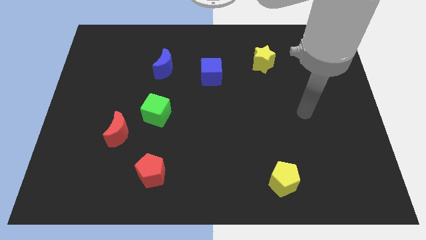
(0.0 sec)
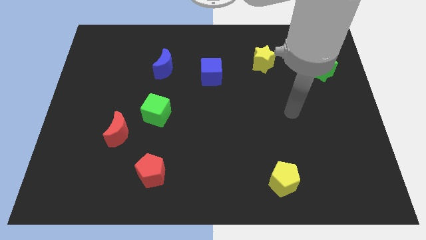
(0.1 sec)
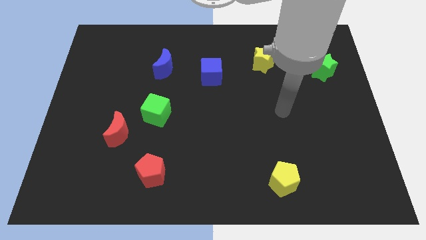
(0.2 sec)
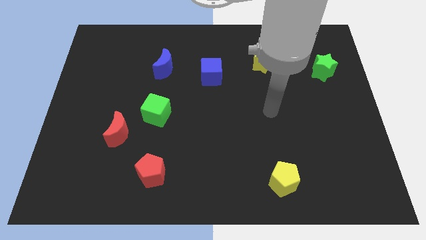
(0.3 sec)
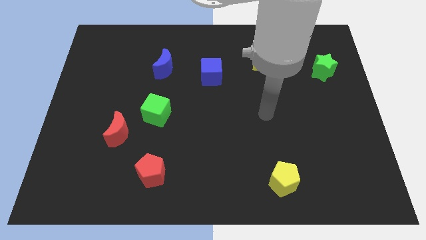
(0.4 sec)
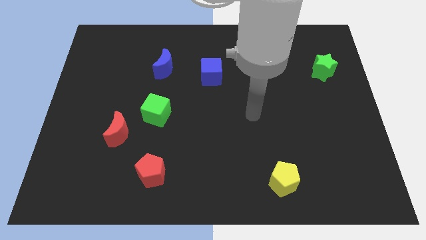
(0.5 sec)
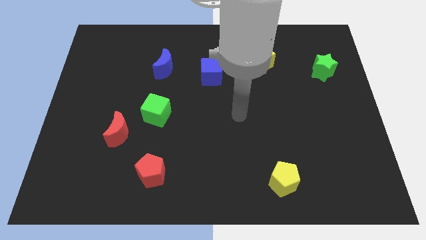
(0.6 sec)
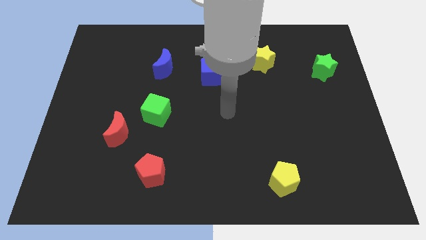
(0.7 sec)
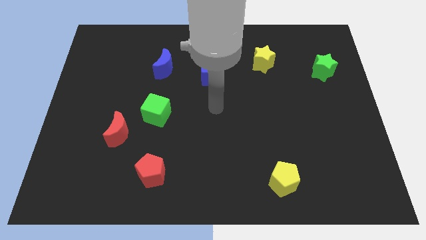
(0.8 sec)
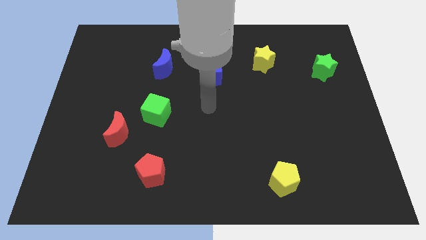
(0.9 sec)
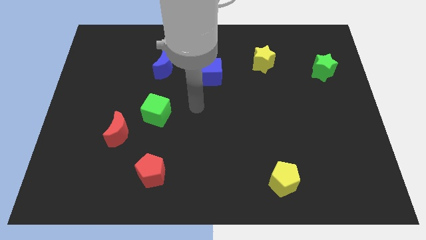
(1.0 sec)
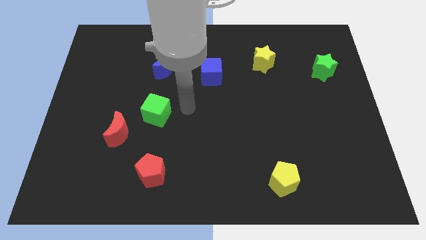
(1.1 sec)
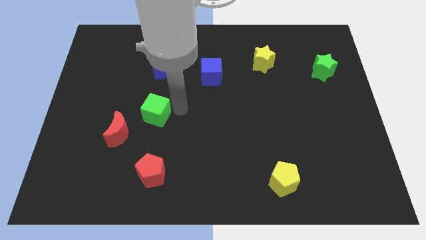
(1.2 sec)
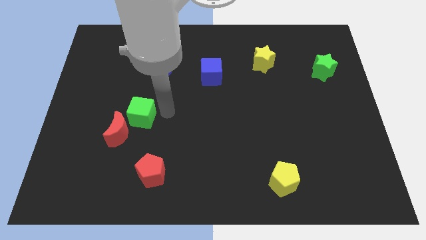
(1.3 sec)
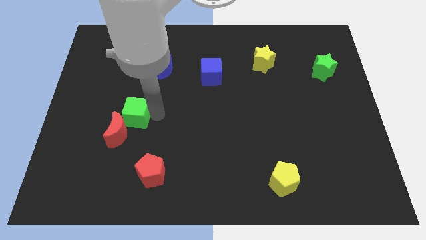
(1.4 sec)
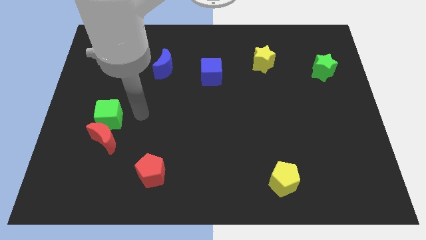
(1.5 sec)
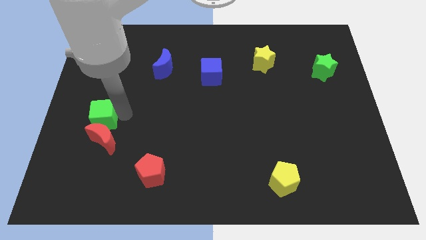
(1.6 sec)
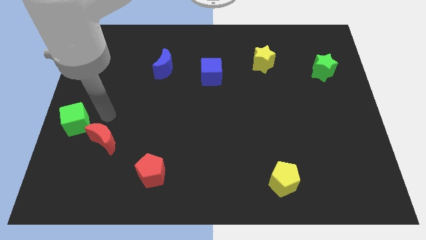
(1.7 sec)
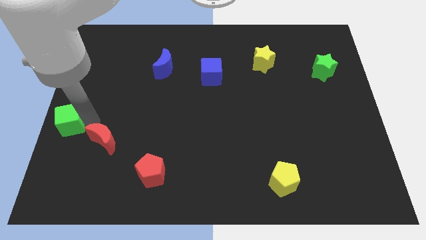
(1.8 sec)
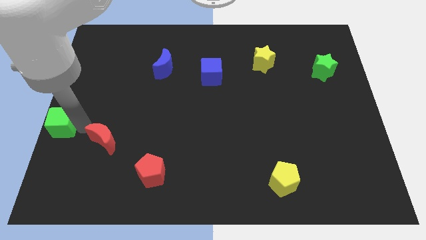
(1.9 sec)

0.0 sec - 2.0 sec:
move the red moon away from the green cube

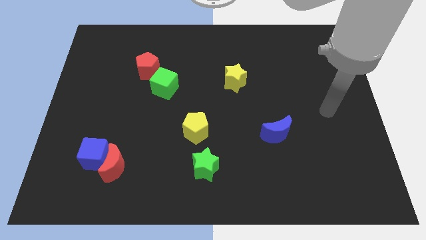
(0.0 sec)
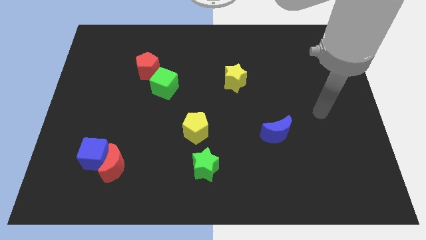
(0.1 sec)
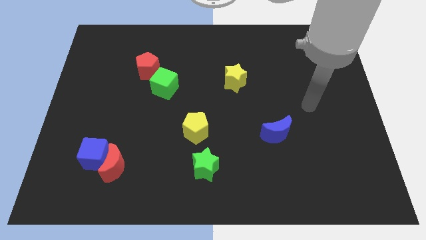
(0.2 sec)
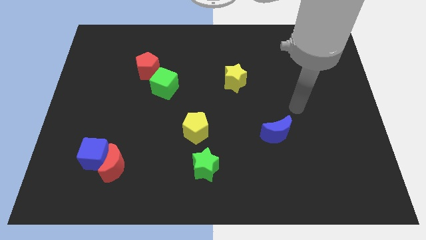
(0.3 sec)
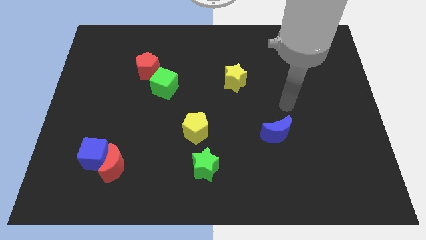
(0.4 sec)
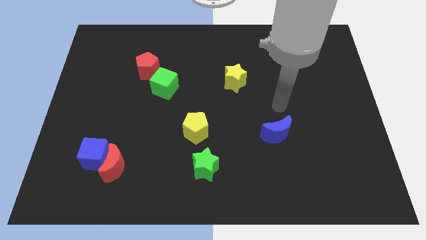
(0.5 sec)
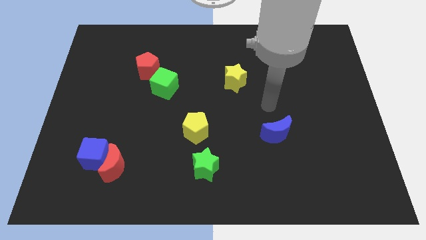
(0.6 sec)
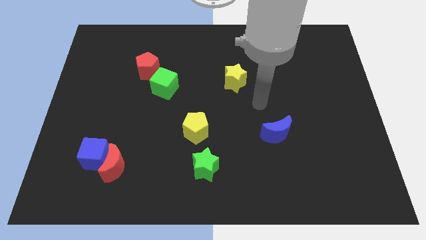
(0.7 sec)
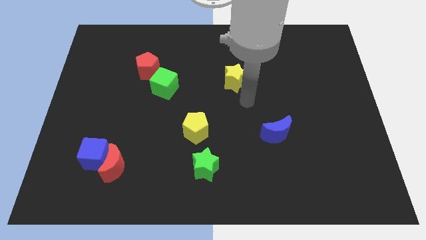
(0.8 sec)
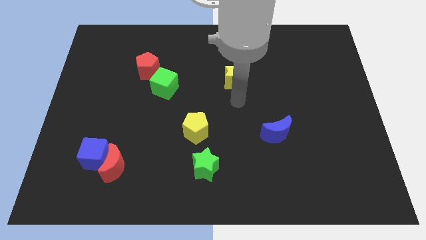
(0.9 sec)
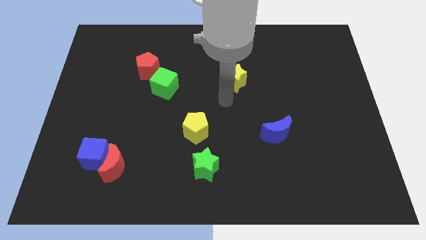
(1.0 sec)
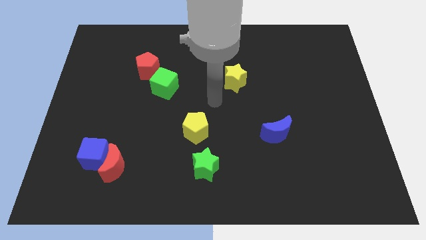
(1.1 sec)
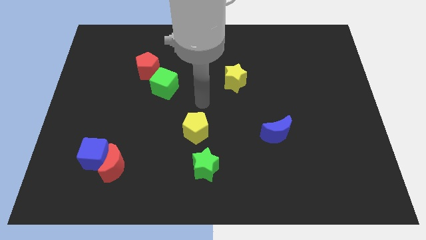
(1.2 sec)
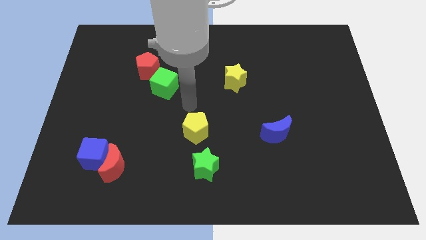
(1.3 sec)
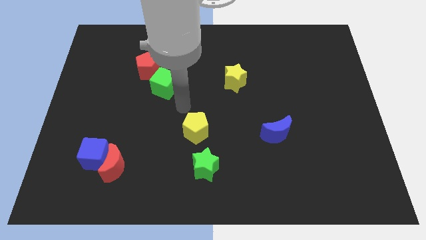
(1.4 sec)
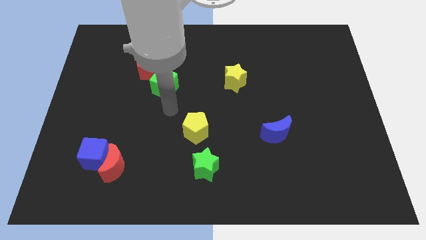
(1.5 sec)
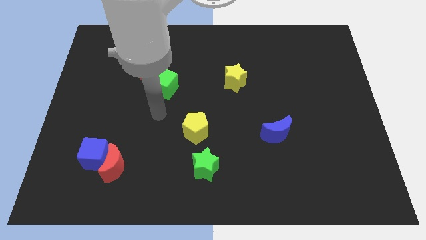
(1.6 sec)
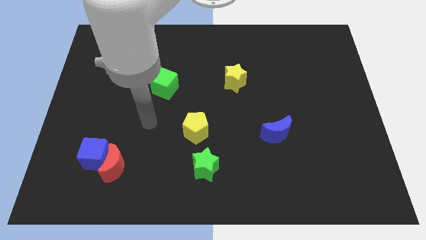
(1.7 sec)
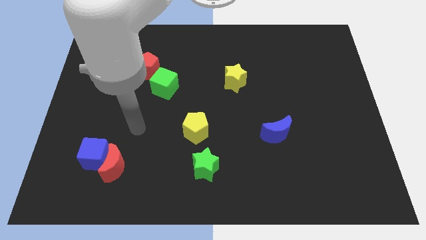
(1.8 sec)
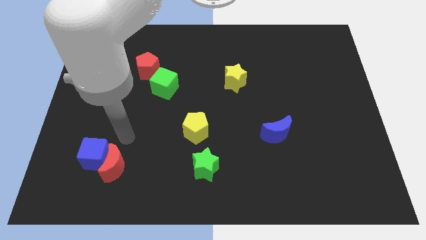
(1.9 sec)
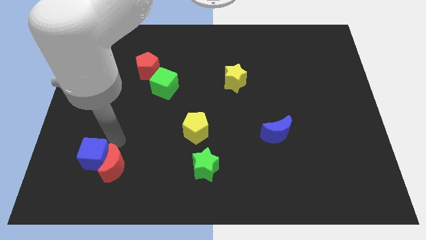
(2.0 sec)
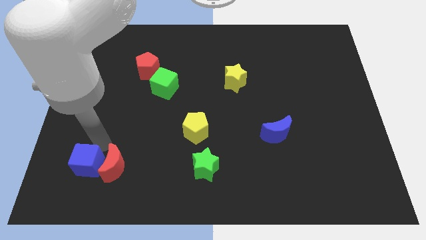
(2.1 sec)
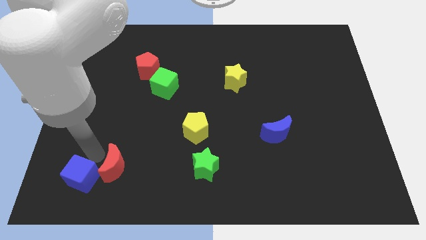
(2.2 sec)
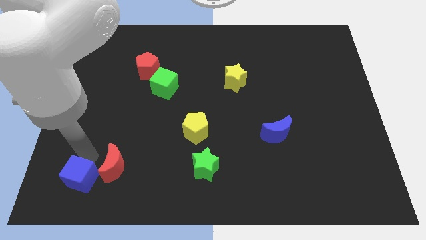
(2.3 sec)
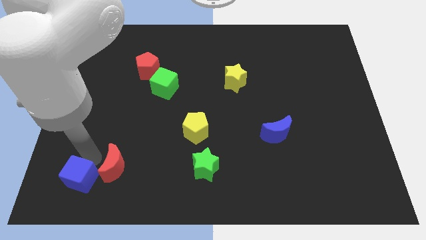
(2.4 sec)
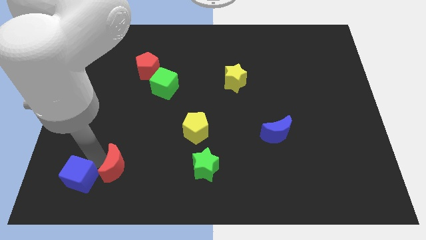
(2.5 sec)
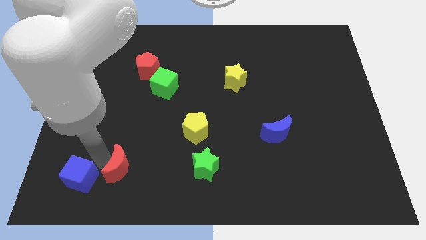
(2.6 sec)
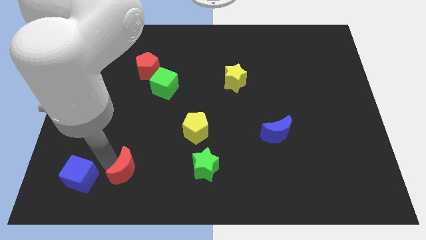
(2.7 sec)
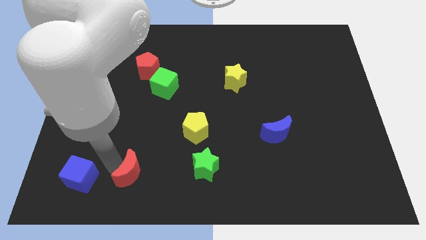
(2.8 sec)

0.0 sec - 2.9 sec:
move the red moon away from the blue cube

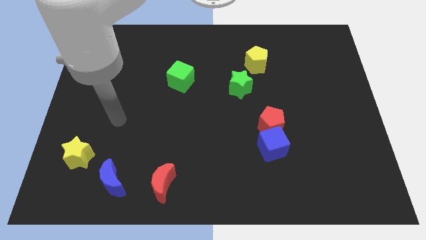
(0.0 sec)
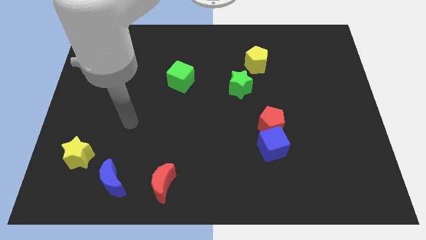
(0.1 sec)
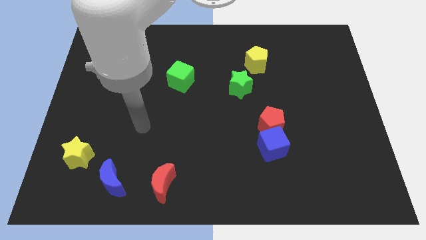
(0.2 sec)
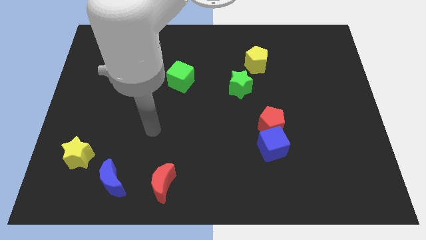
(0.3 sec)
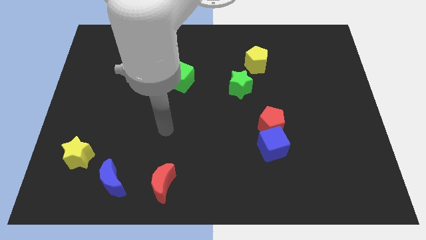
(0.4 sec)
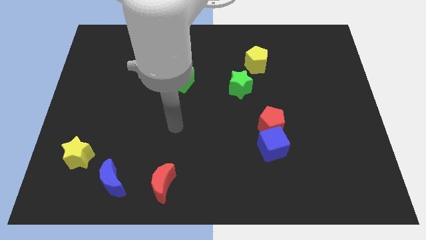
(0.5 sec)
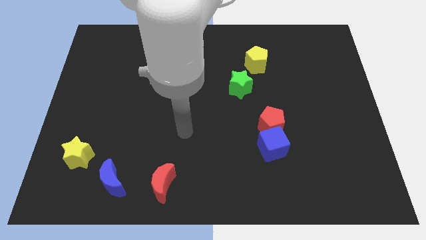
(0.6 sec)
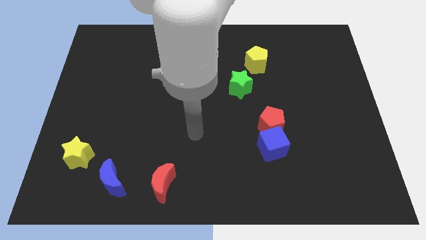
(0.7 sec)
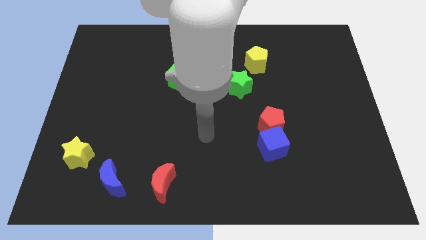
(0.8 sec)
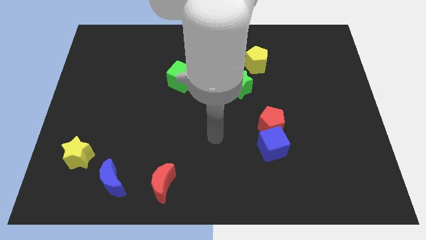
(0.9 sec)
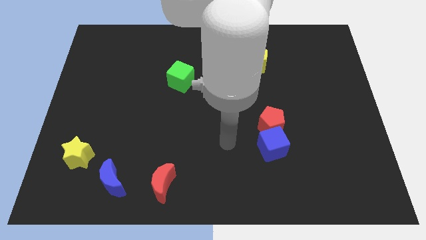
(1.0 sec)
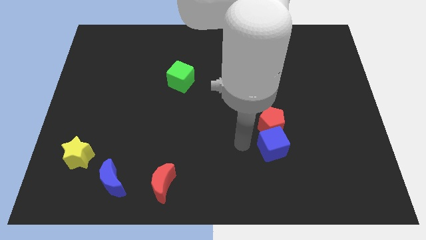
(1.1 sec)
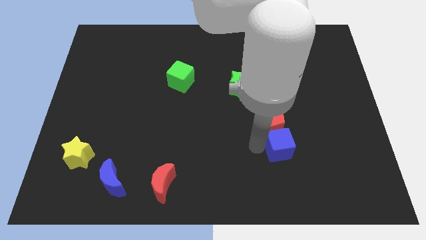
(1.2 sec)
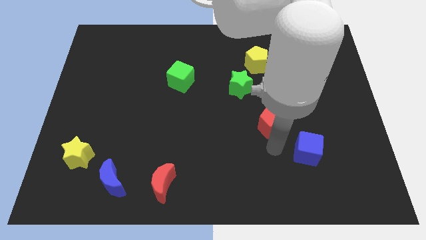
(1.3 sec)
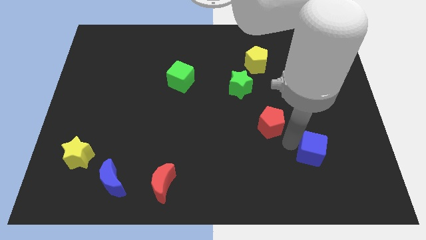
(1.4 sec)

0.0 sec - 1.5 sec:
separate the red pentagon from the blue cube

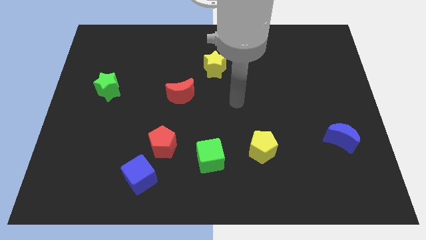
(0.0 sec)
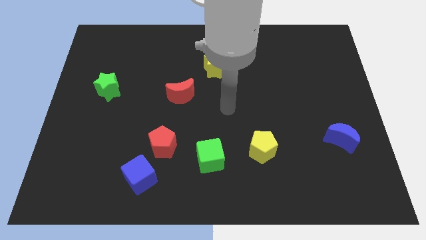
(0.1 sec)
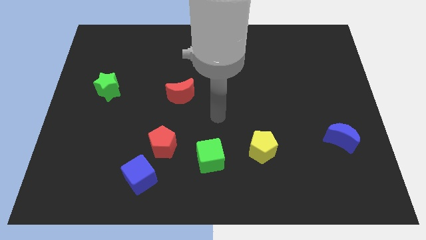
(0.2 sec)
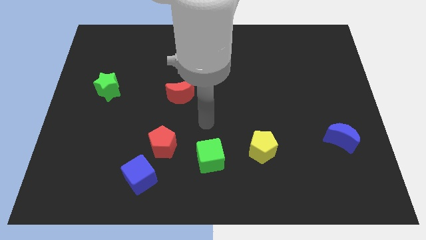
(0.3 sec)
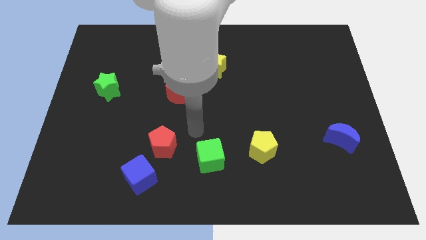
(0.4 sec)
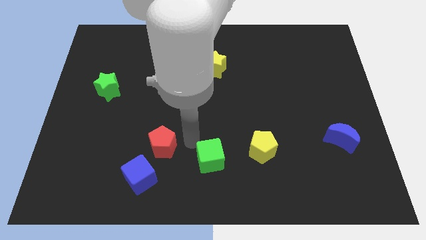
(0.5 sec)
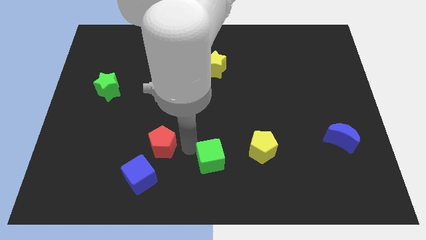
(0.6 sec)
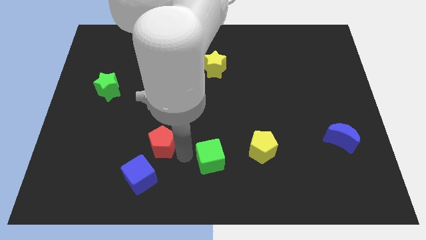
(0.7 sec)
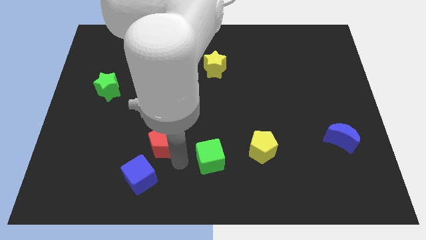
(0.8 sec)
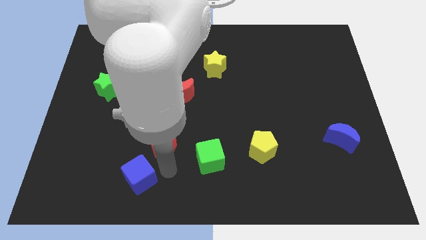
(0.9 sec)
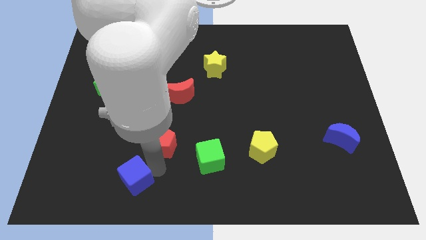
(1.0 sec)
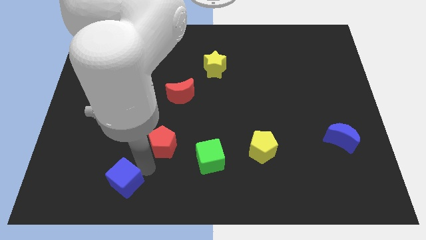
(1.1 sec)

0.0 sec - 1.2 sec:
move the red pentagon away from the blue cube

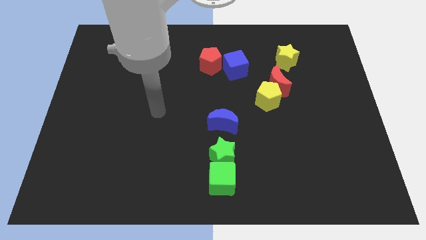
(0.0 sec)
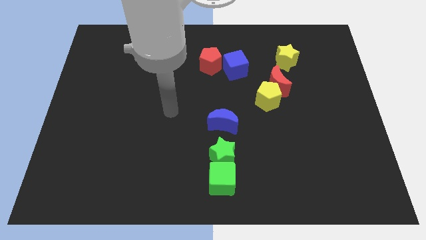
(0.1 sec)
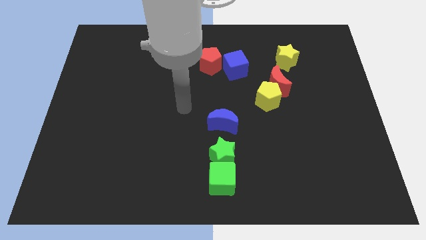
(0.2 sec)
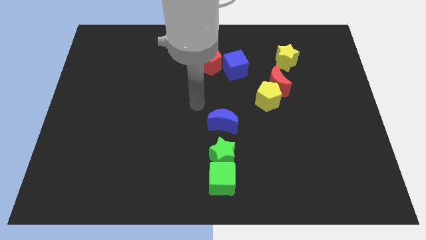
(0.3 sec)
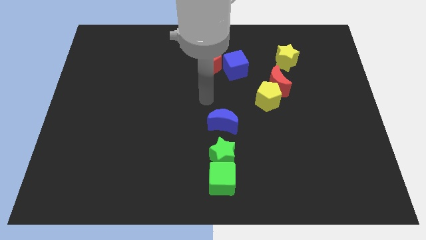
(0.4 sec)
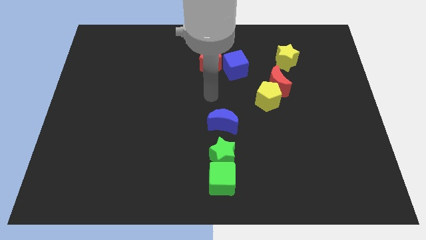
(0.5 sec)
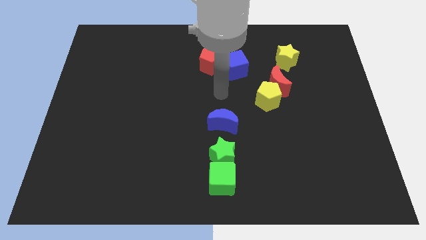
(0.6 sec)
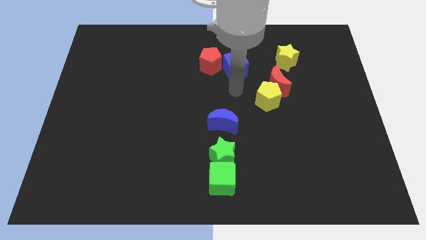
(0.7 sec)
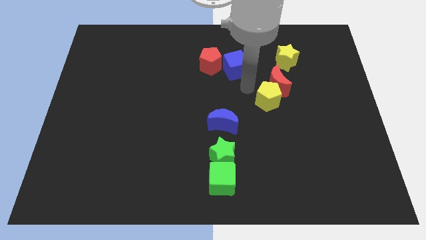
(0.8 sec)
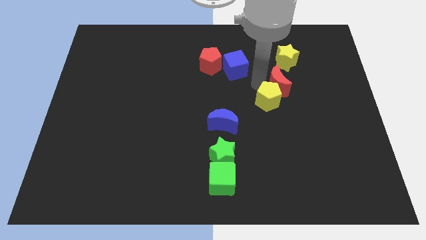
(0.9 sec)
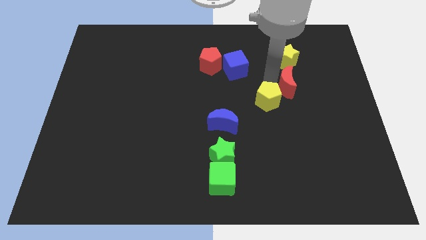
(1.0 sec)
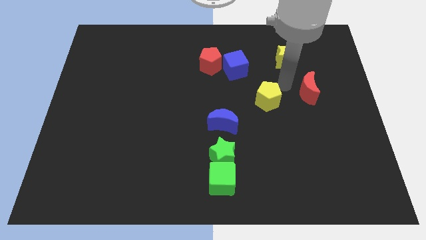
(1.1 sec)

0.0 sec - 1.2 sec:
separate the yellow pentagon from the red moon

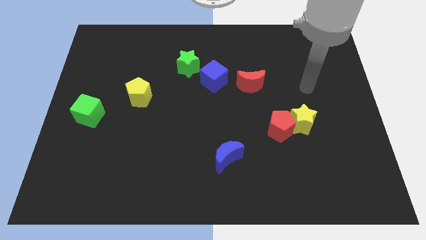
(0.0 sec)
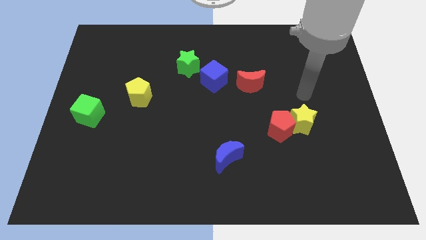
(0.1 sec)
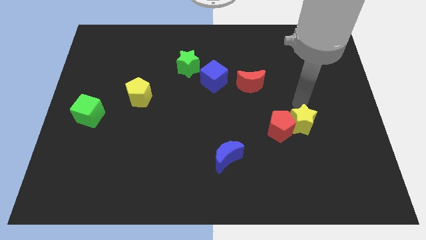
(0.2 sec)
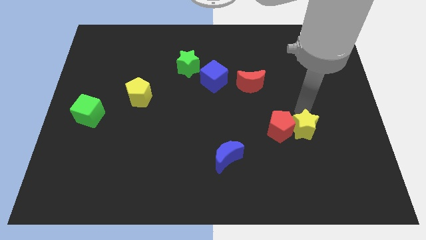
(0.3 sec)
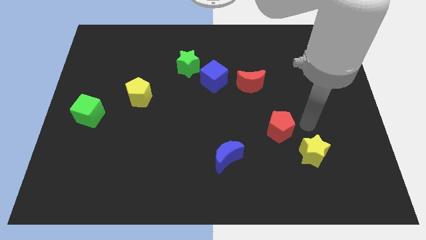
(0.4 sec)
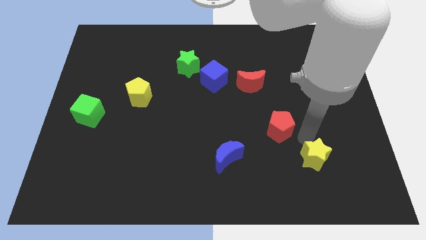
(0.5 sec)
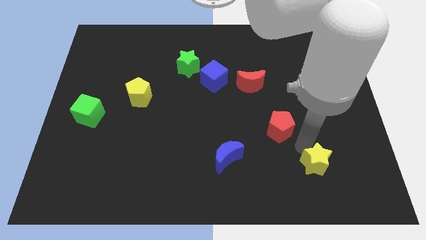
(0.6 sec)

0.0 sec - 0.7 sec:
move the red pentagon away from the yellow star
